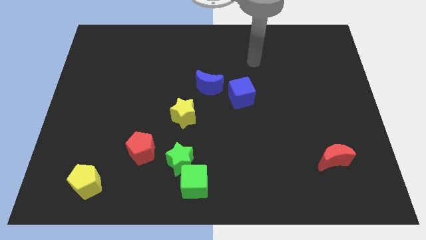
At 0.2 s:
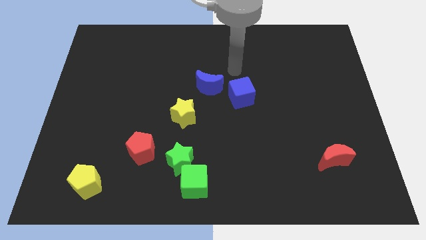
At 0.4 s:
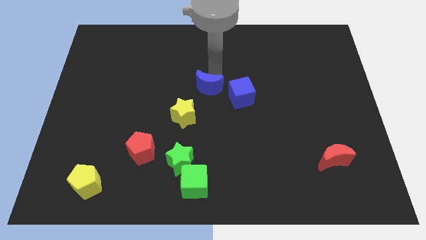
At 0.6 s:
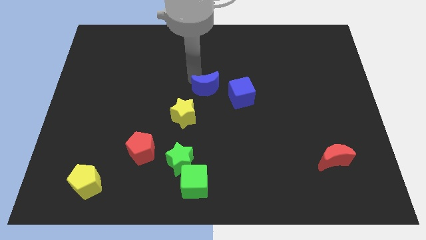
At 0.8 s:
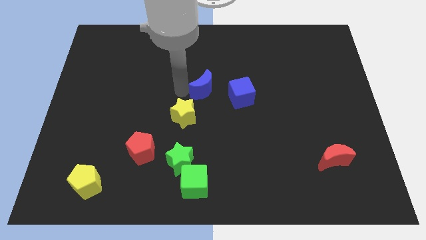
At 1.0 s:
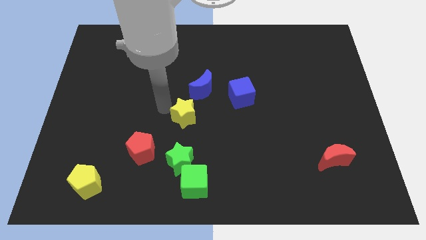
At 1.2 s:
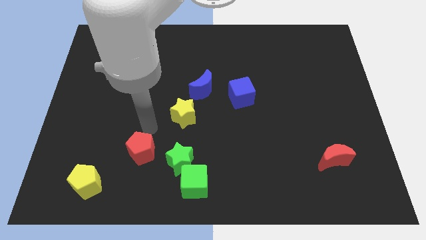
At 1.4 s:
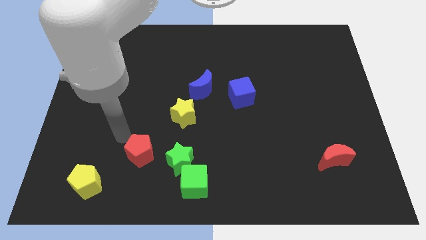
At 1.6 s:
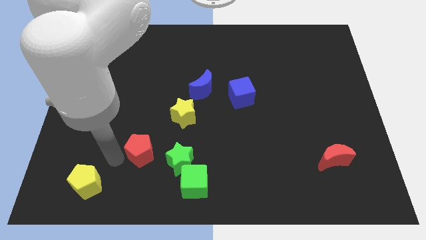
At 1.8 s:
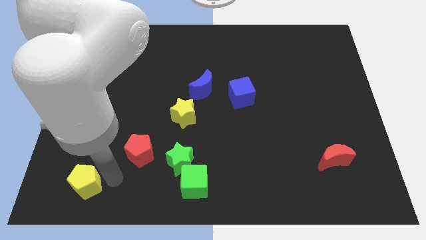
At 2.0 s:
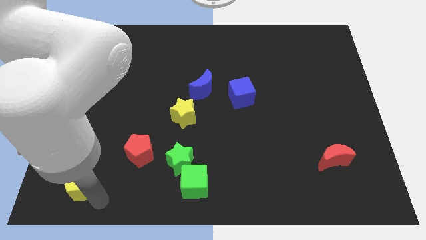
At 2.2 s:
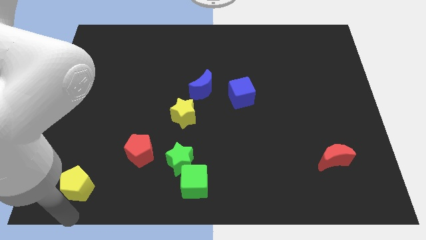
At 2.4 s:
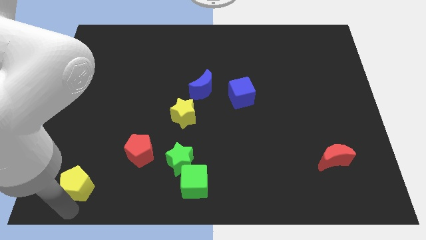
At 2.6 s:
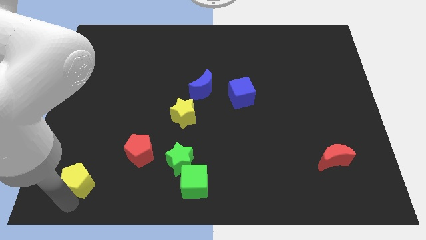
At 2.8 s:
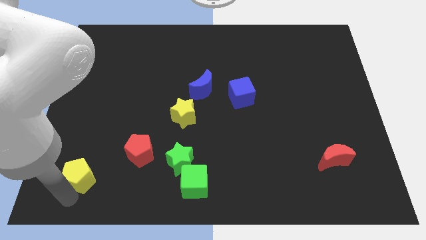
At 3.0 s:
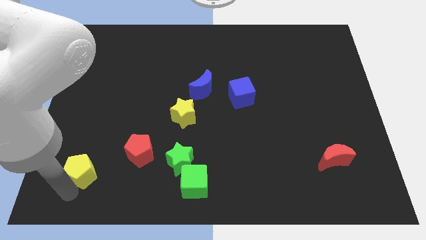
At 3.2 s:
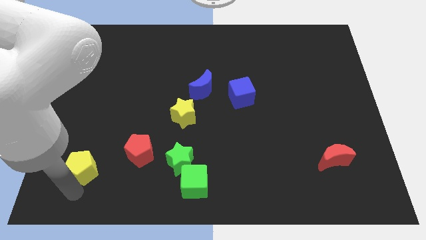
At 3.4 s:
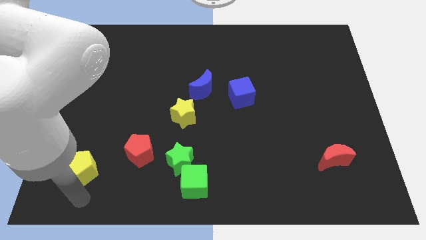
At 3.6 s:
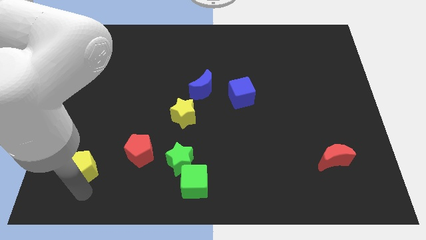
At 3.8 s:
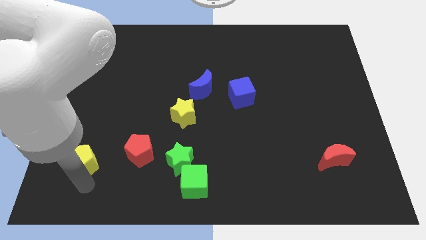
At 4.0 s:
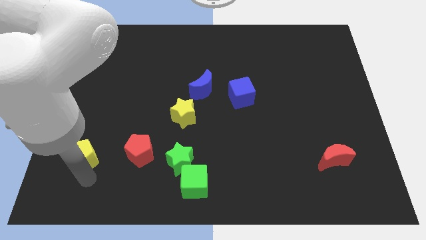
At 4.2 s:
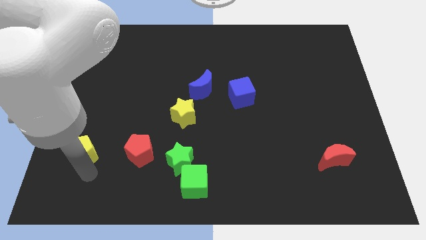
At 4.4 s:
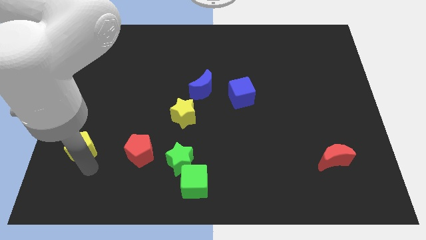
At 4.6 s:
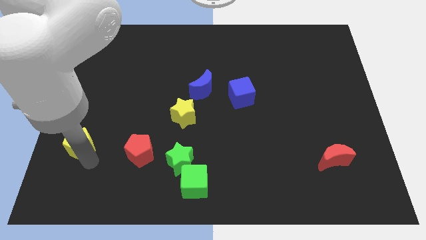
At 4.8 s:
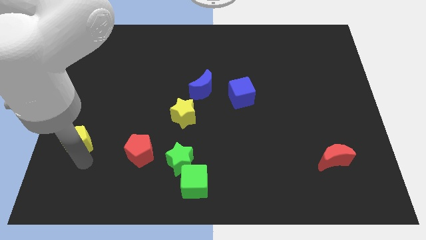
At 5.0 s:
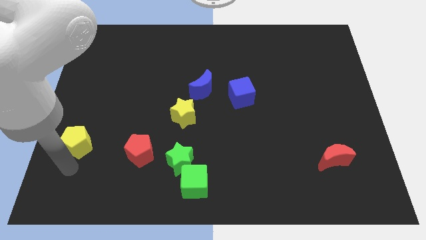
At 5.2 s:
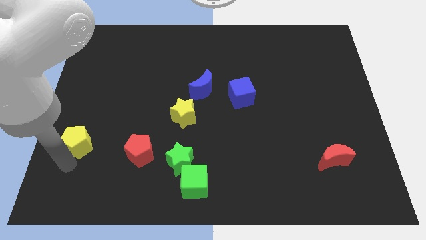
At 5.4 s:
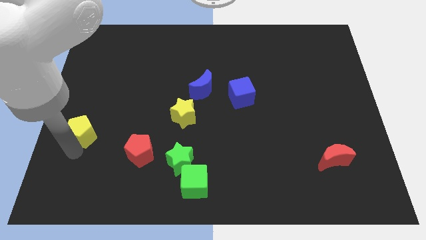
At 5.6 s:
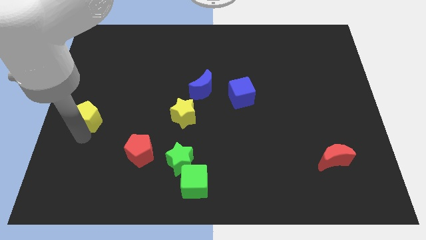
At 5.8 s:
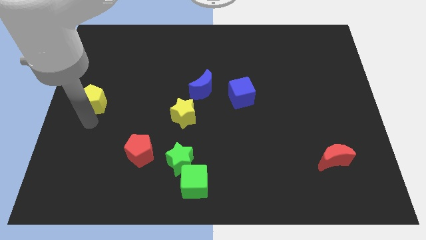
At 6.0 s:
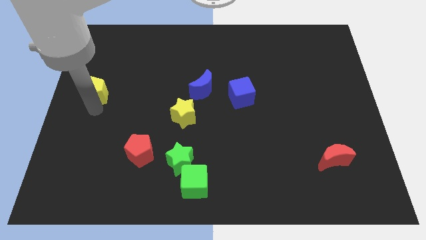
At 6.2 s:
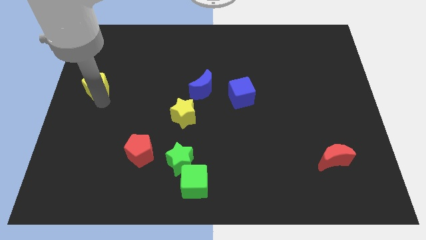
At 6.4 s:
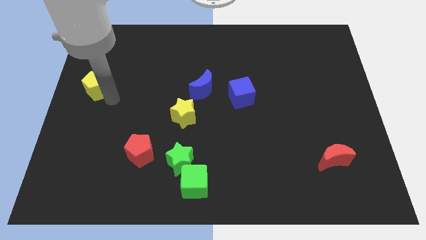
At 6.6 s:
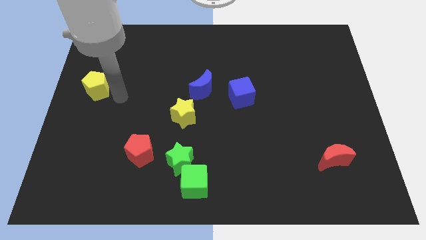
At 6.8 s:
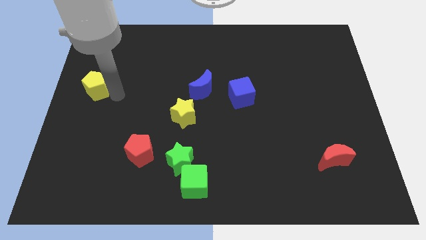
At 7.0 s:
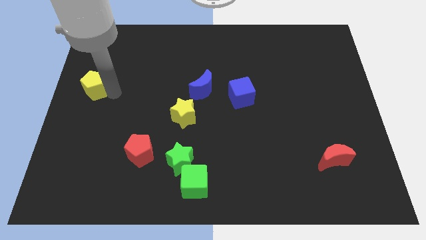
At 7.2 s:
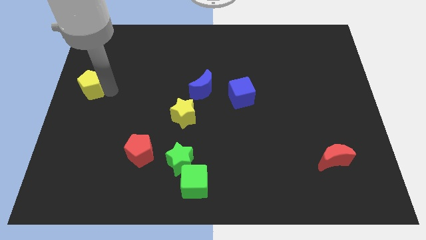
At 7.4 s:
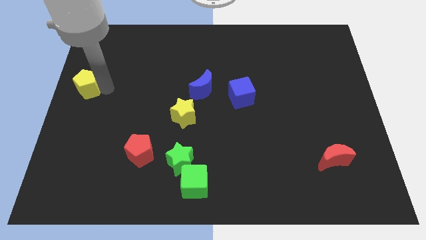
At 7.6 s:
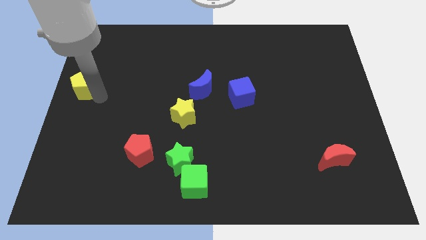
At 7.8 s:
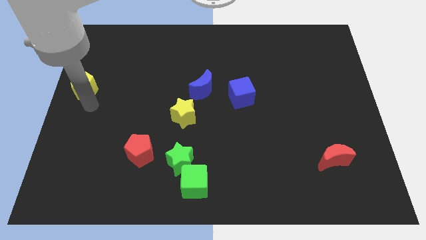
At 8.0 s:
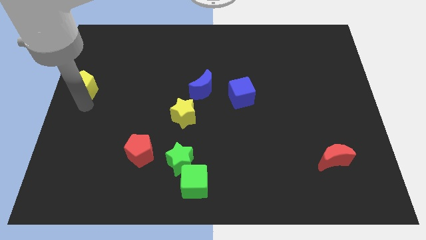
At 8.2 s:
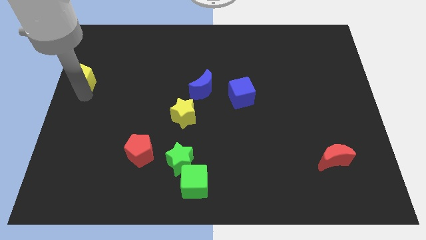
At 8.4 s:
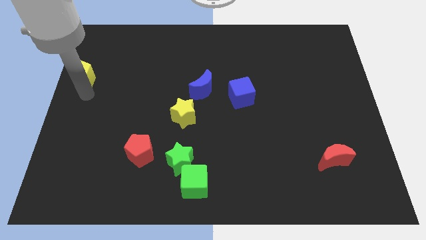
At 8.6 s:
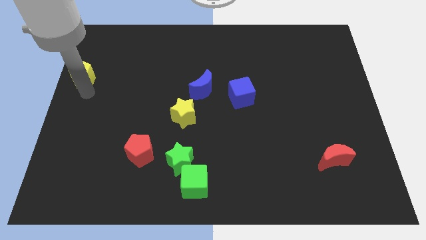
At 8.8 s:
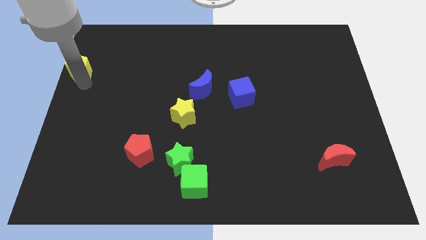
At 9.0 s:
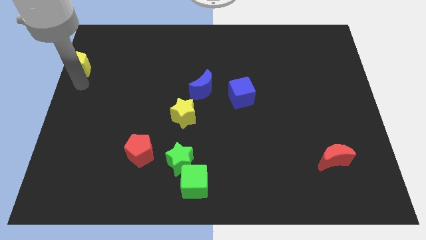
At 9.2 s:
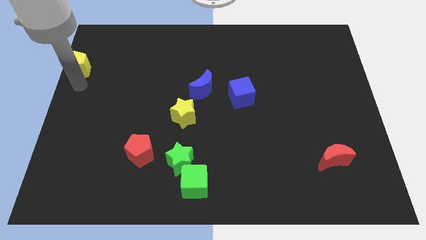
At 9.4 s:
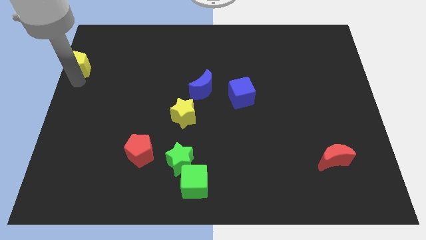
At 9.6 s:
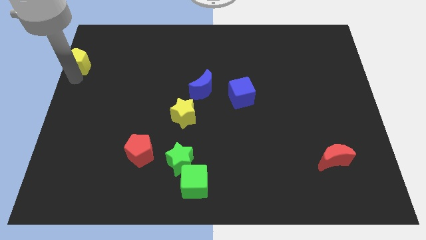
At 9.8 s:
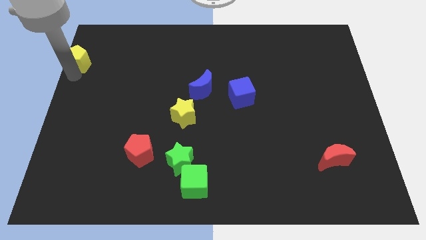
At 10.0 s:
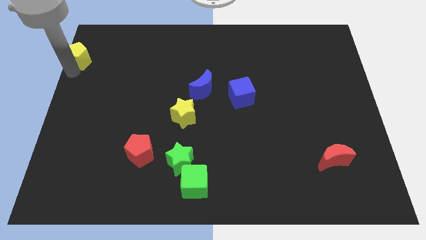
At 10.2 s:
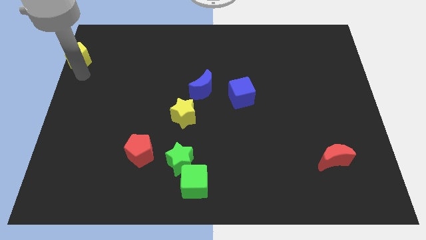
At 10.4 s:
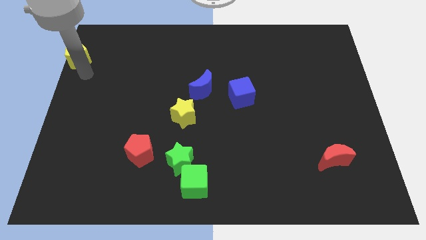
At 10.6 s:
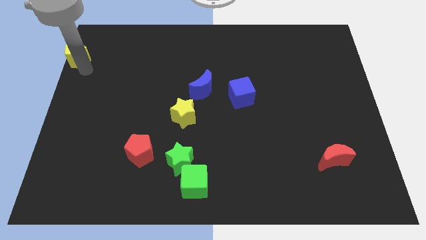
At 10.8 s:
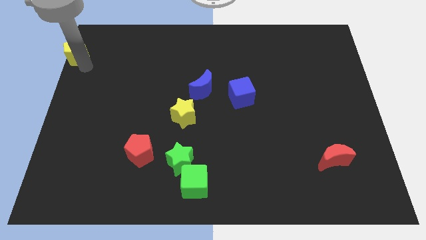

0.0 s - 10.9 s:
push the yellow pentagon to the top left corner

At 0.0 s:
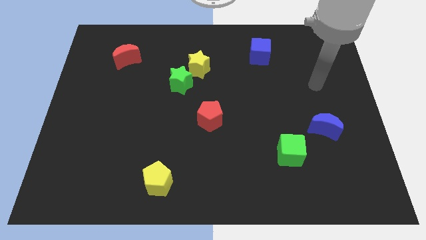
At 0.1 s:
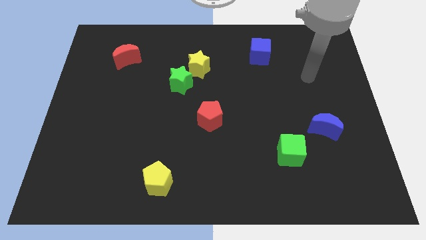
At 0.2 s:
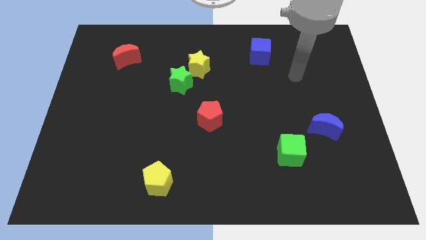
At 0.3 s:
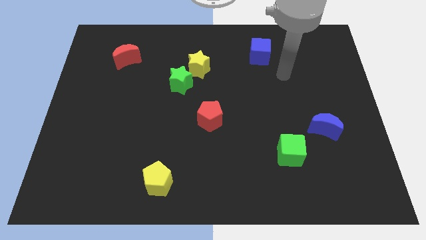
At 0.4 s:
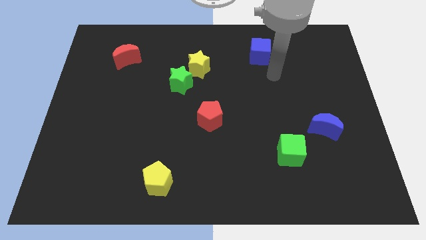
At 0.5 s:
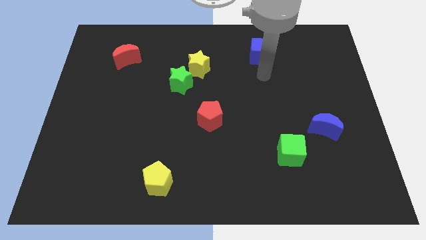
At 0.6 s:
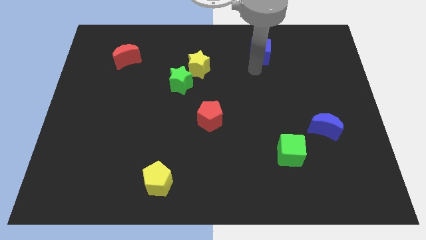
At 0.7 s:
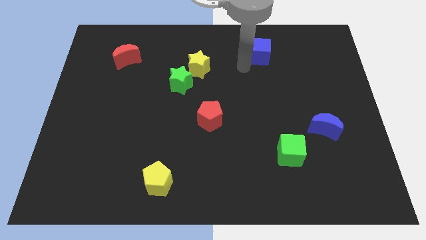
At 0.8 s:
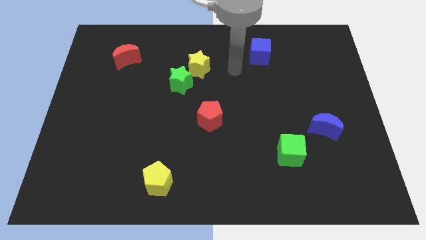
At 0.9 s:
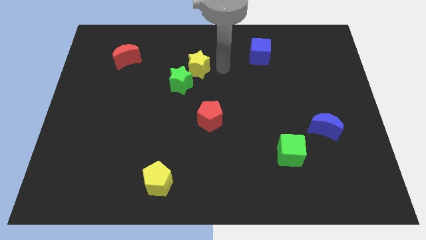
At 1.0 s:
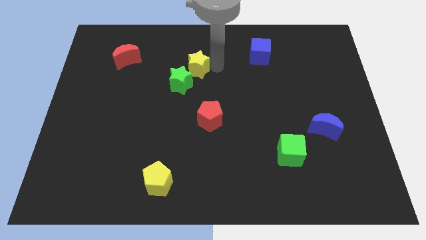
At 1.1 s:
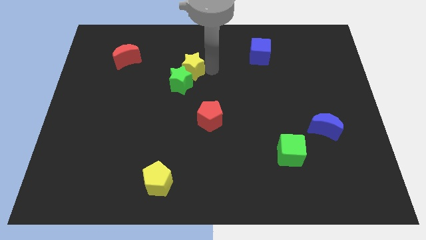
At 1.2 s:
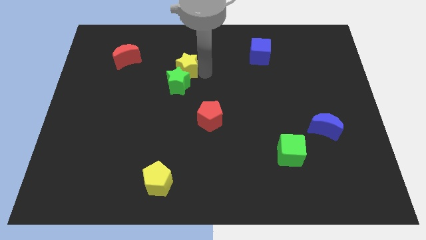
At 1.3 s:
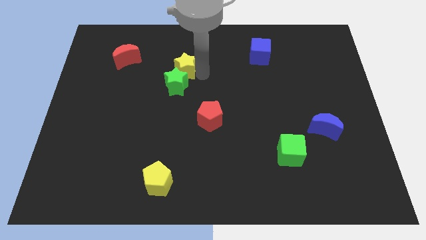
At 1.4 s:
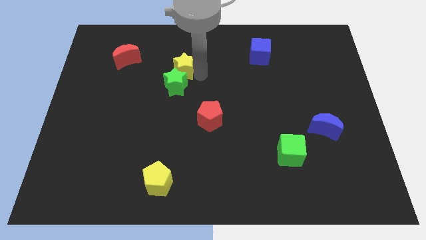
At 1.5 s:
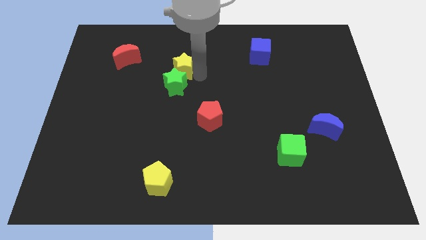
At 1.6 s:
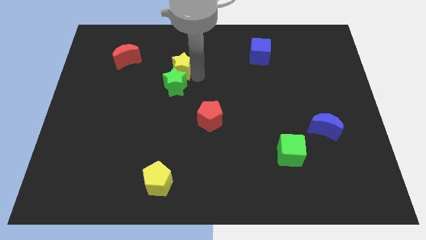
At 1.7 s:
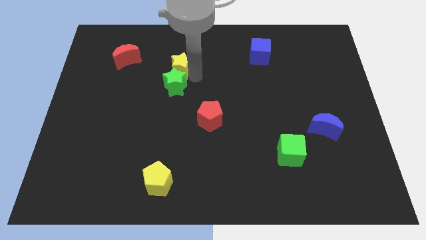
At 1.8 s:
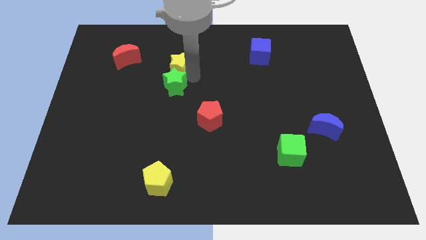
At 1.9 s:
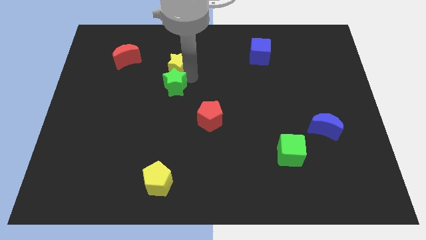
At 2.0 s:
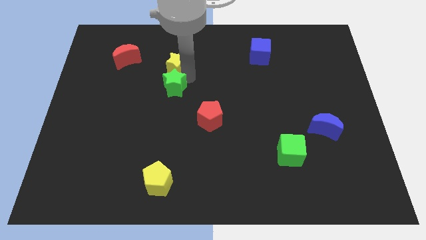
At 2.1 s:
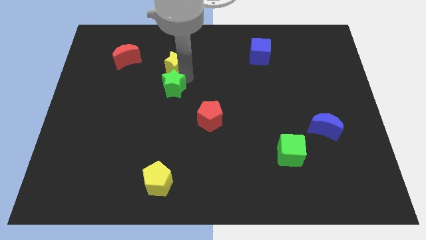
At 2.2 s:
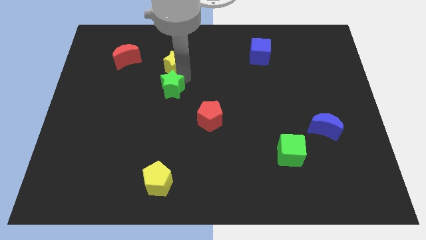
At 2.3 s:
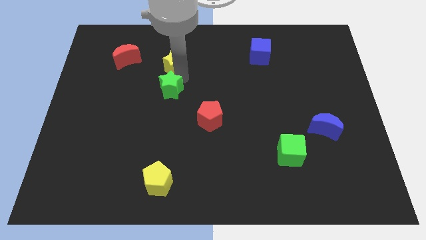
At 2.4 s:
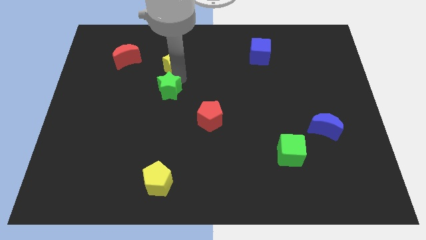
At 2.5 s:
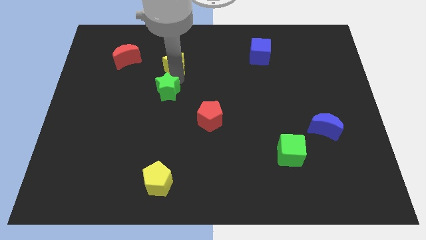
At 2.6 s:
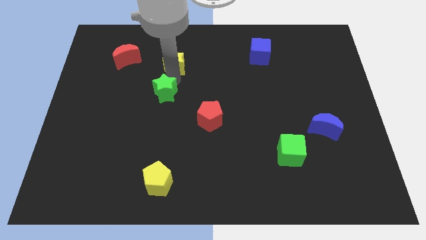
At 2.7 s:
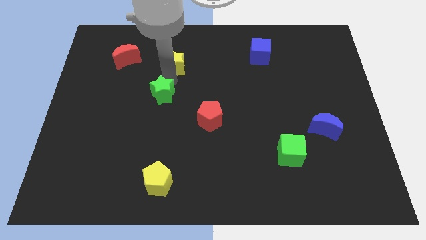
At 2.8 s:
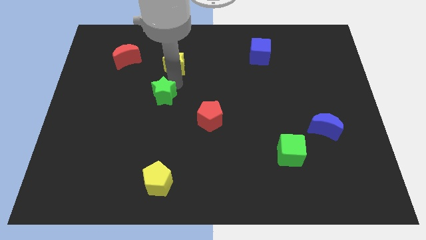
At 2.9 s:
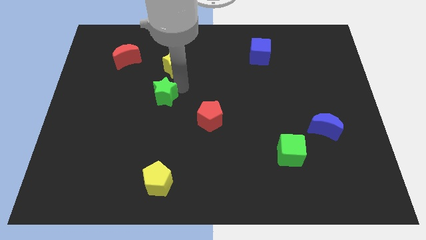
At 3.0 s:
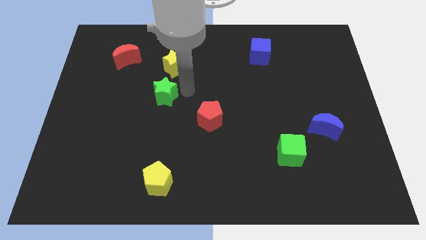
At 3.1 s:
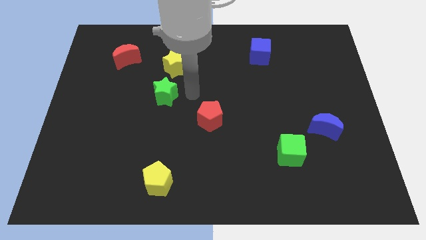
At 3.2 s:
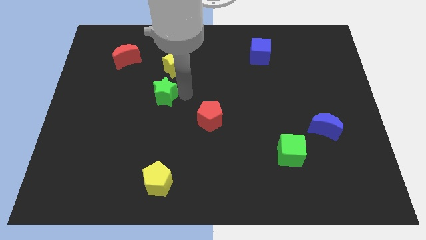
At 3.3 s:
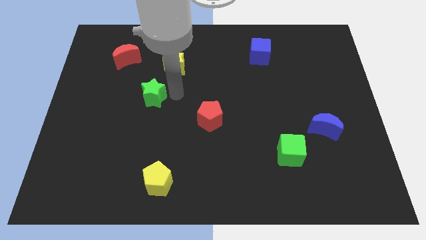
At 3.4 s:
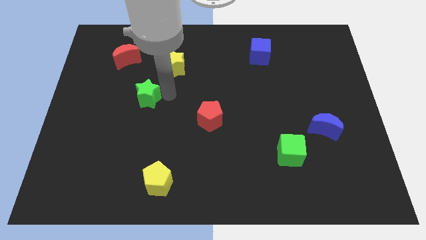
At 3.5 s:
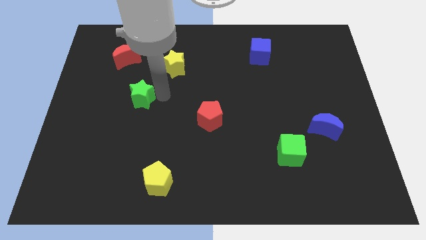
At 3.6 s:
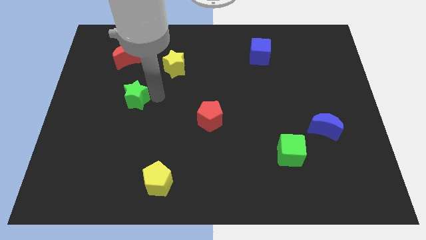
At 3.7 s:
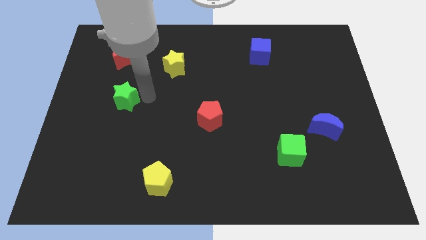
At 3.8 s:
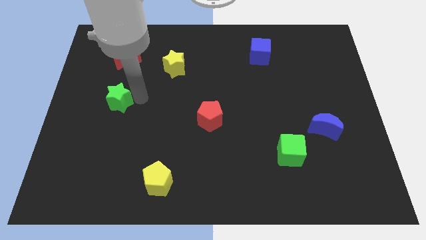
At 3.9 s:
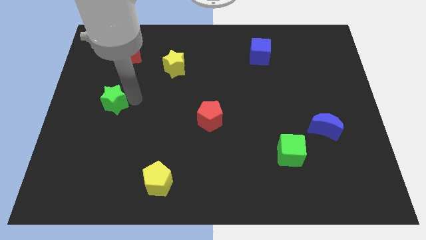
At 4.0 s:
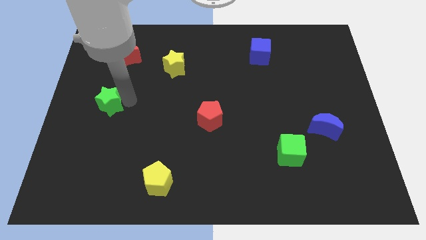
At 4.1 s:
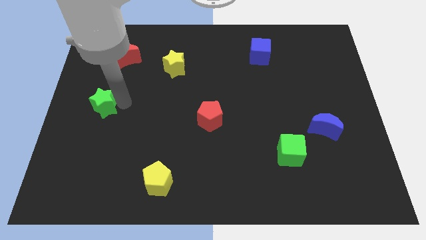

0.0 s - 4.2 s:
put the green star to the left side of the board
